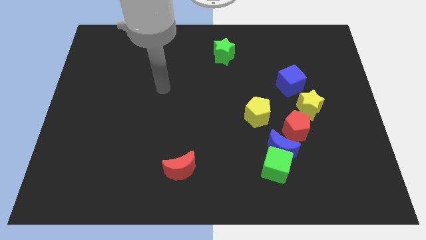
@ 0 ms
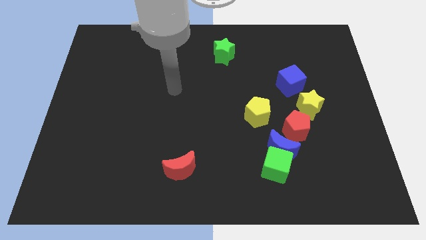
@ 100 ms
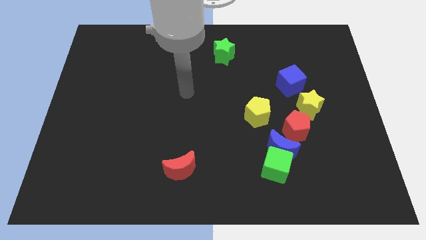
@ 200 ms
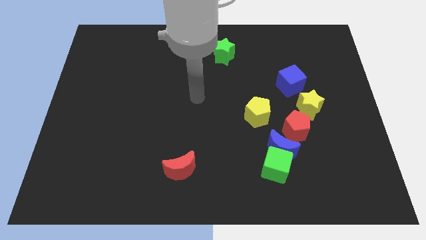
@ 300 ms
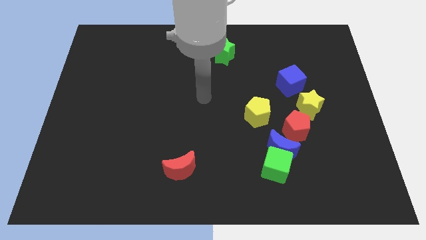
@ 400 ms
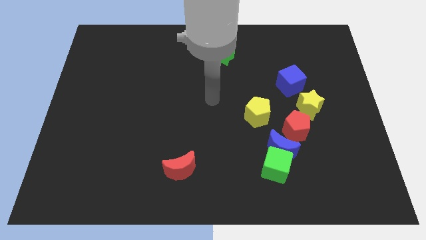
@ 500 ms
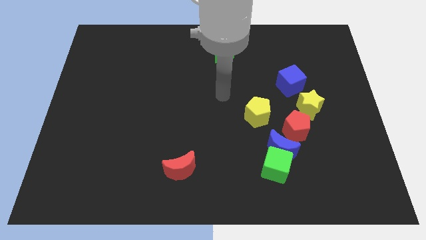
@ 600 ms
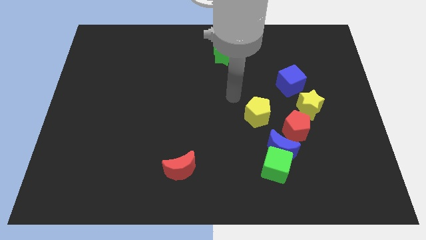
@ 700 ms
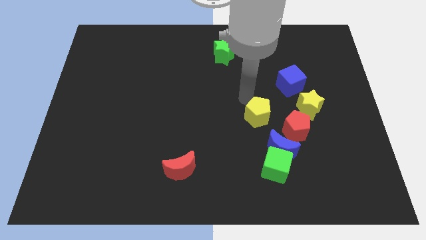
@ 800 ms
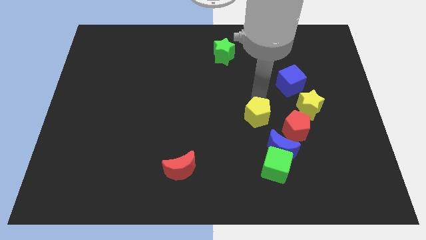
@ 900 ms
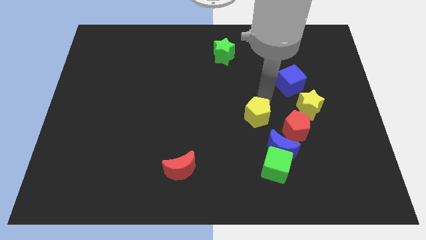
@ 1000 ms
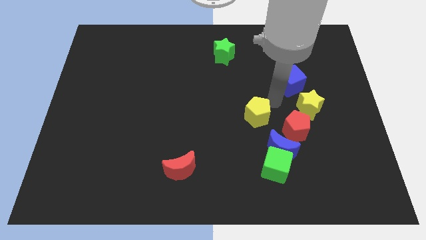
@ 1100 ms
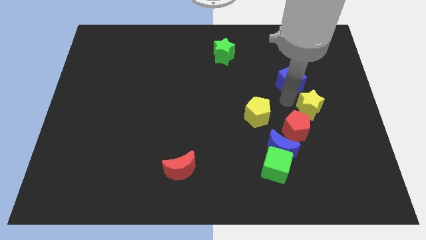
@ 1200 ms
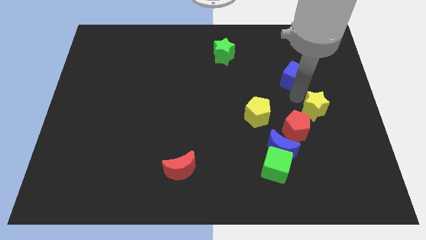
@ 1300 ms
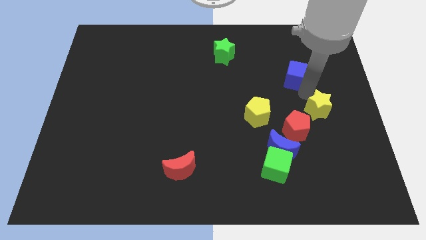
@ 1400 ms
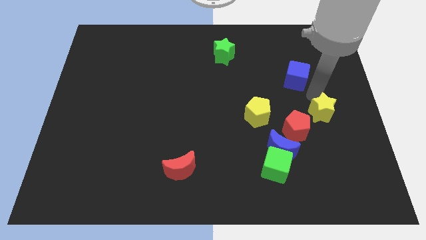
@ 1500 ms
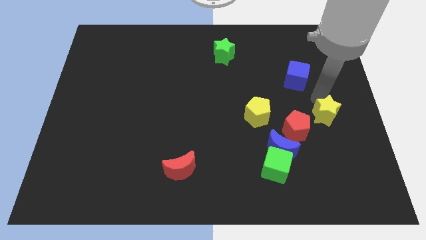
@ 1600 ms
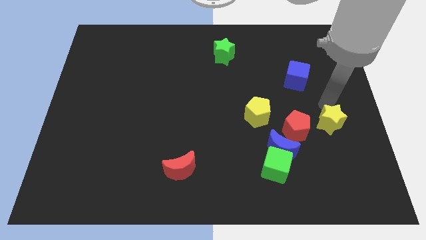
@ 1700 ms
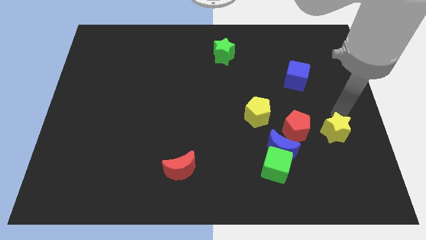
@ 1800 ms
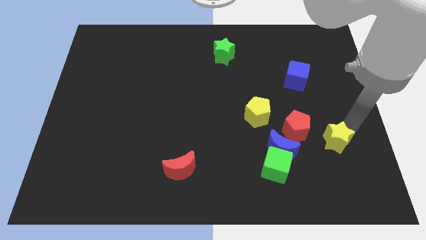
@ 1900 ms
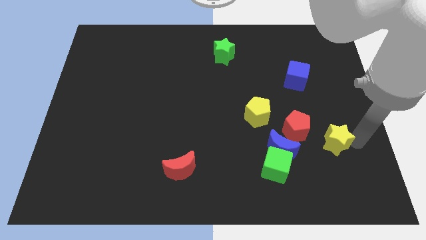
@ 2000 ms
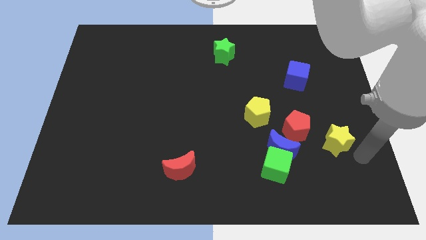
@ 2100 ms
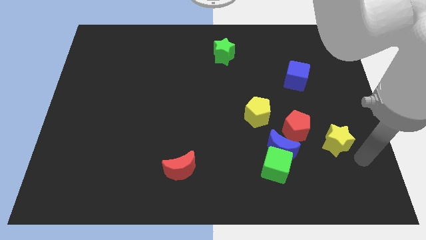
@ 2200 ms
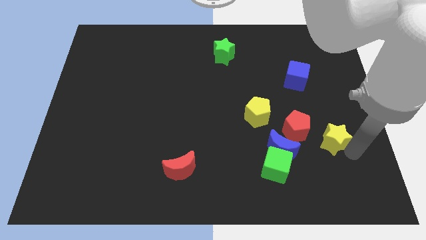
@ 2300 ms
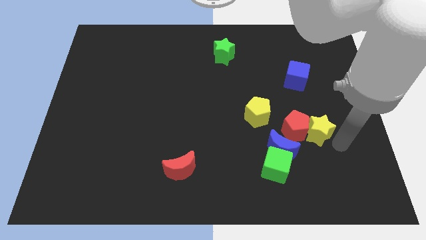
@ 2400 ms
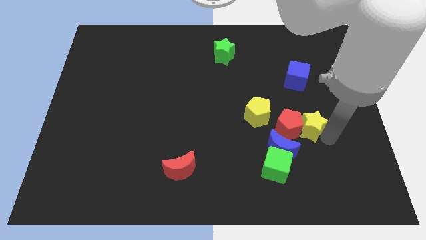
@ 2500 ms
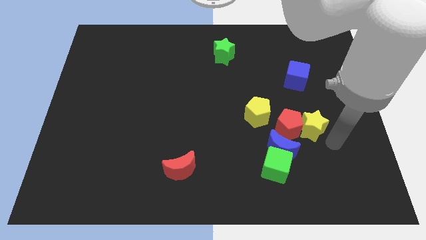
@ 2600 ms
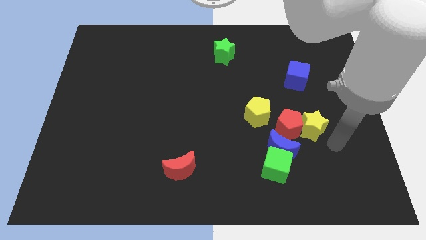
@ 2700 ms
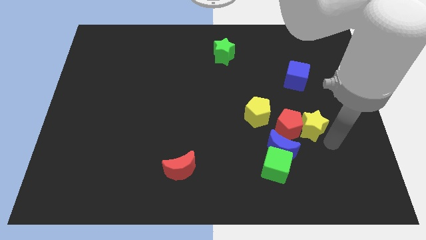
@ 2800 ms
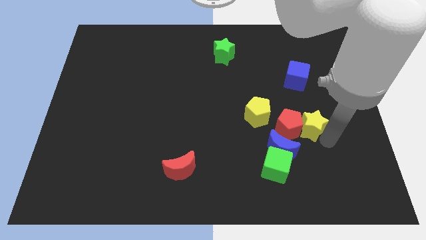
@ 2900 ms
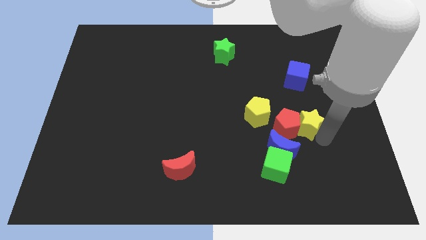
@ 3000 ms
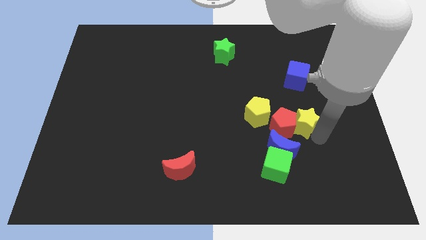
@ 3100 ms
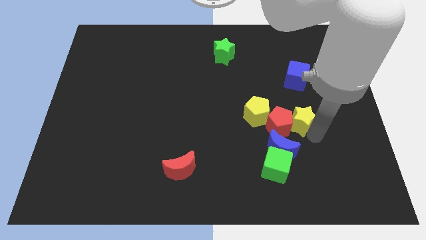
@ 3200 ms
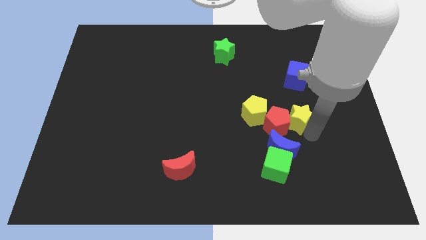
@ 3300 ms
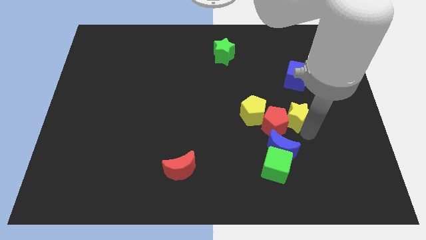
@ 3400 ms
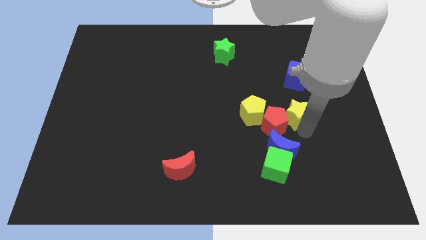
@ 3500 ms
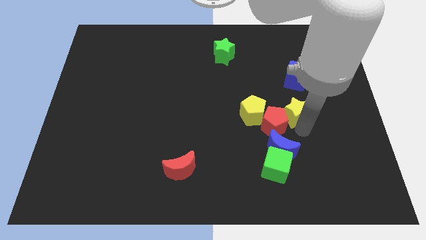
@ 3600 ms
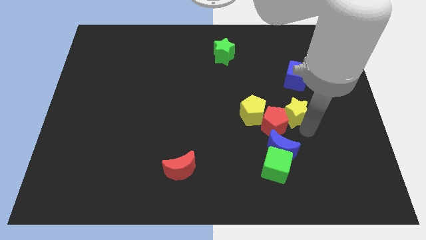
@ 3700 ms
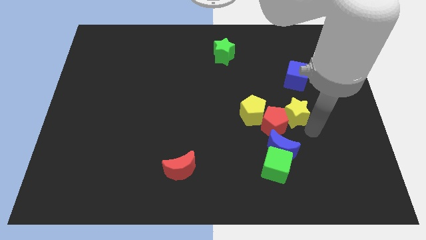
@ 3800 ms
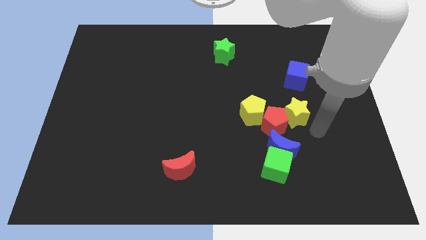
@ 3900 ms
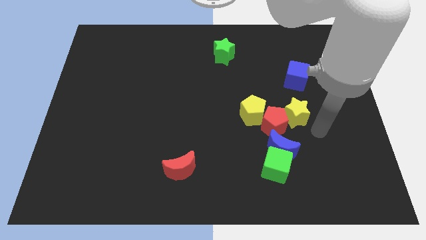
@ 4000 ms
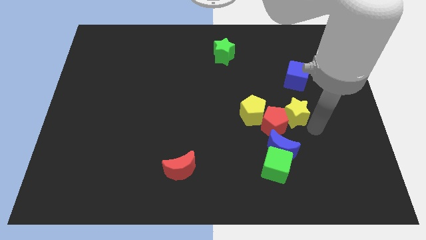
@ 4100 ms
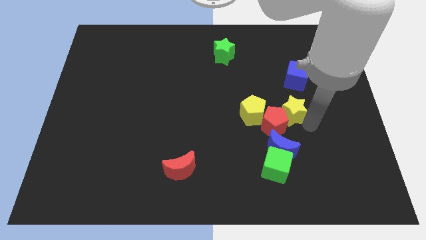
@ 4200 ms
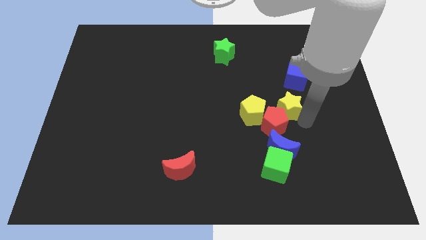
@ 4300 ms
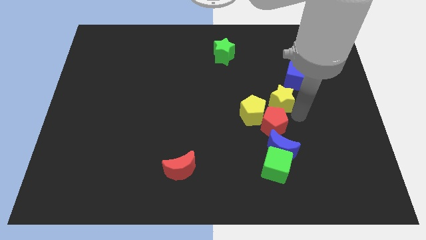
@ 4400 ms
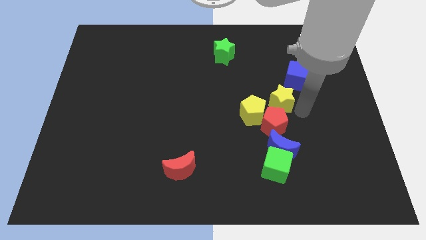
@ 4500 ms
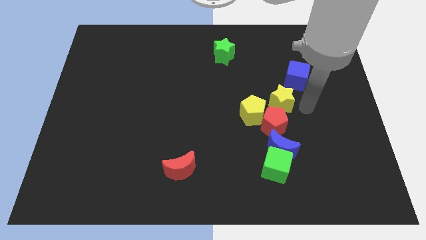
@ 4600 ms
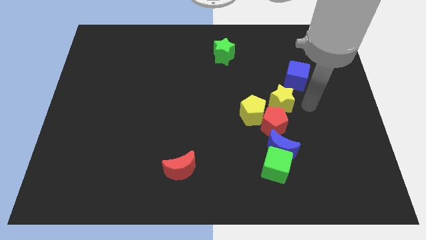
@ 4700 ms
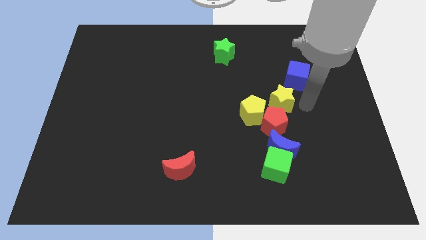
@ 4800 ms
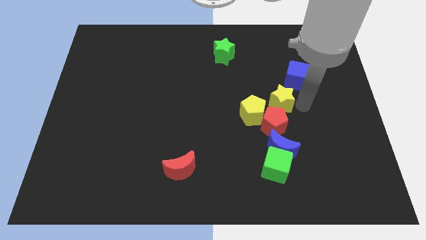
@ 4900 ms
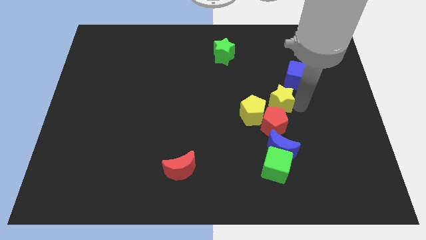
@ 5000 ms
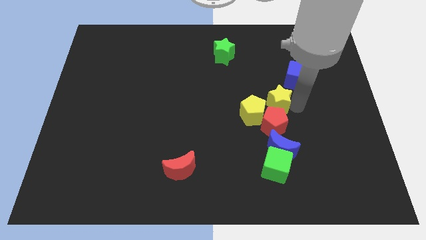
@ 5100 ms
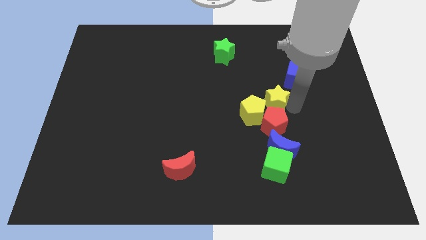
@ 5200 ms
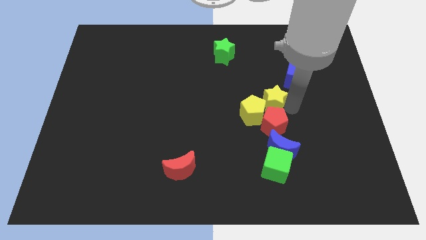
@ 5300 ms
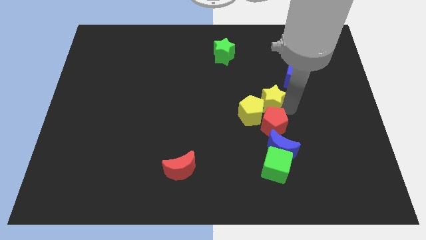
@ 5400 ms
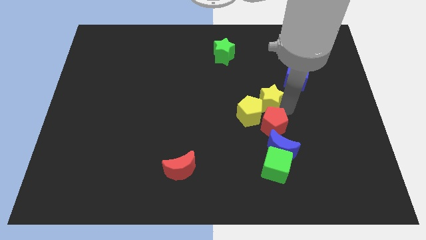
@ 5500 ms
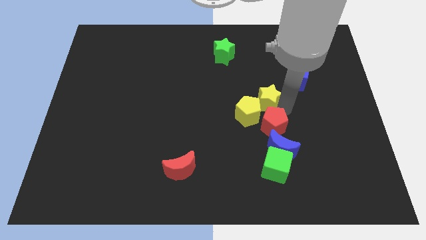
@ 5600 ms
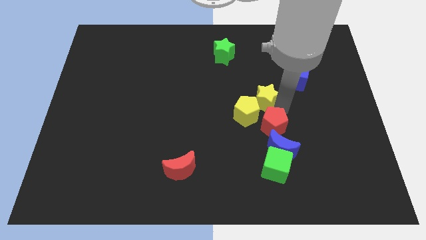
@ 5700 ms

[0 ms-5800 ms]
put the yellow star to the middle of the board

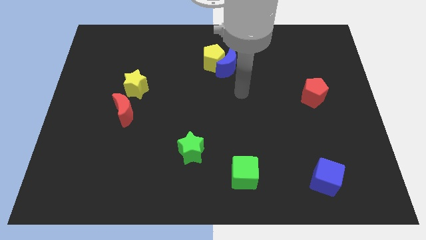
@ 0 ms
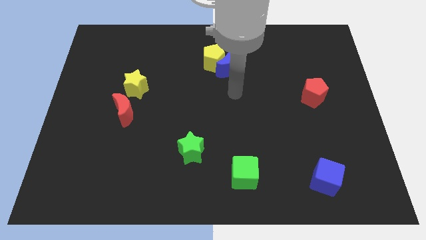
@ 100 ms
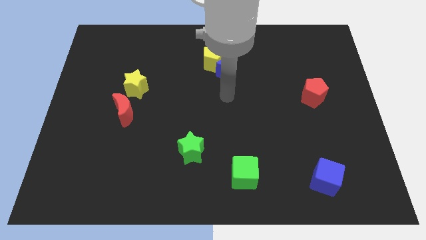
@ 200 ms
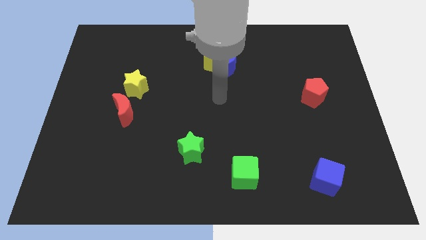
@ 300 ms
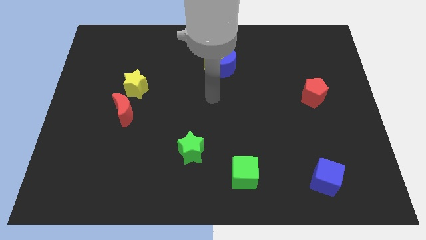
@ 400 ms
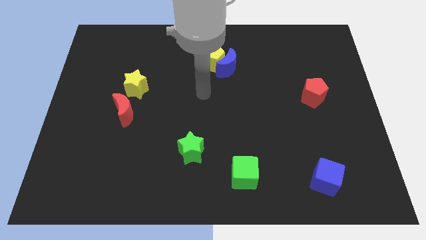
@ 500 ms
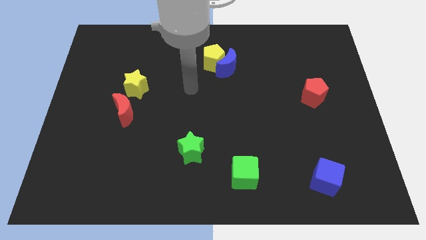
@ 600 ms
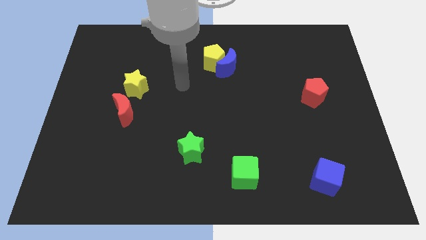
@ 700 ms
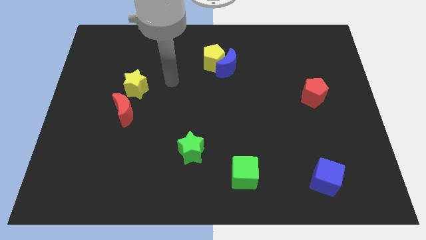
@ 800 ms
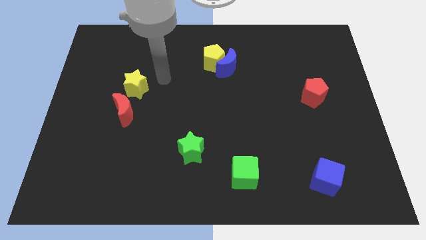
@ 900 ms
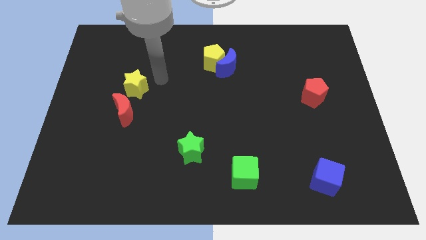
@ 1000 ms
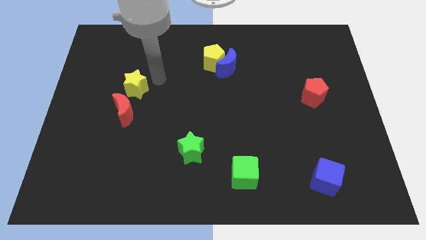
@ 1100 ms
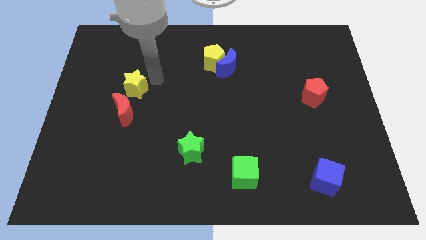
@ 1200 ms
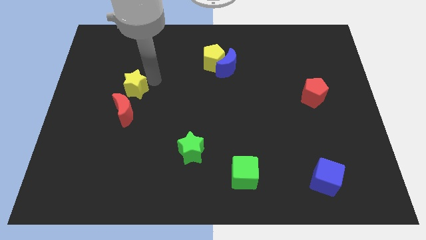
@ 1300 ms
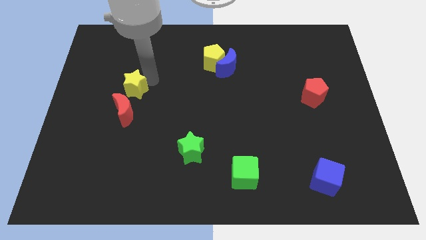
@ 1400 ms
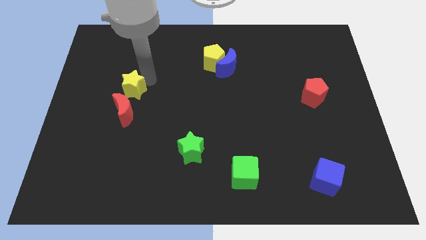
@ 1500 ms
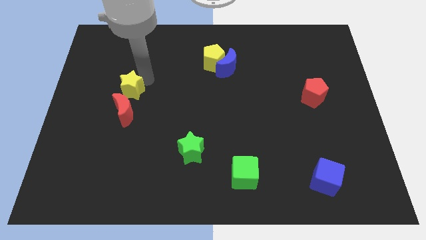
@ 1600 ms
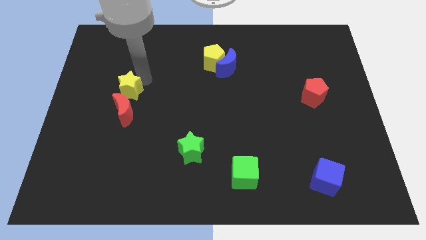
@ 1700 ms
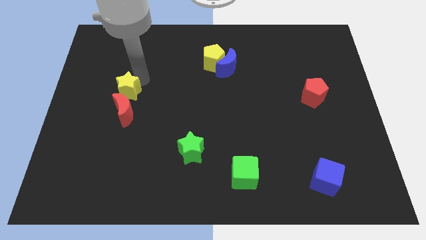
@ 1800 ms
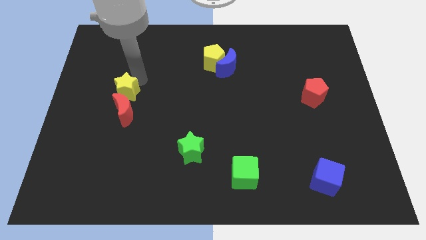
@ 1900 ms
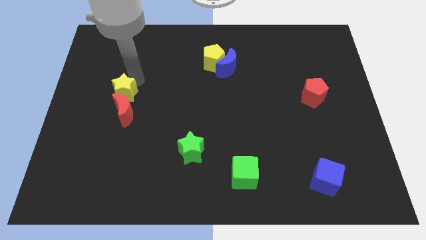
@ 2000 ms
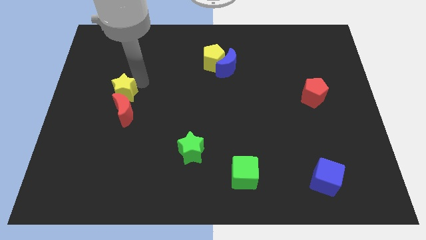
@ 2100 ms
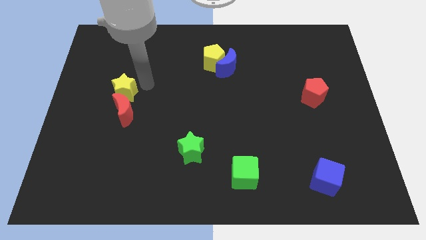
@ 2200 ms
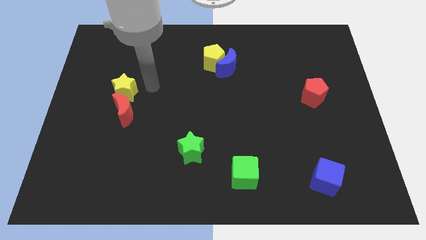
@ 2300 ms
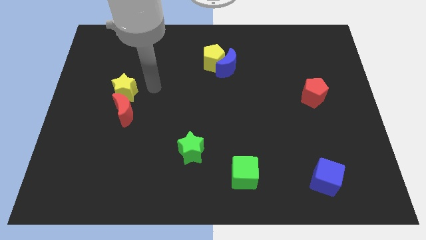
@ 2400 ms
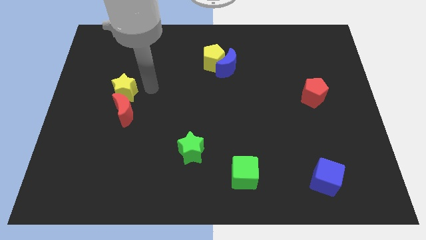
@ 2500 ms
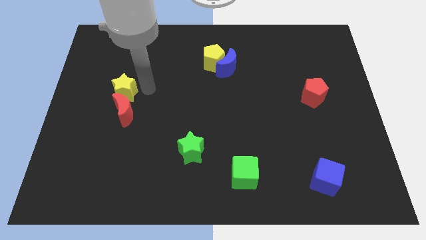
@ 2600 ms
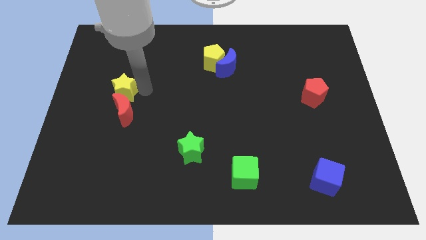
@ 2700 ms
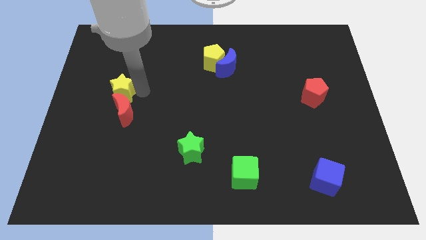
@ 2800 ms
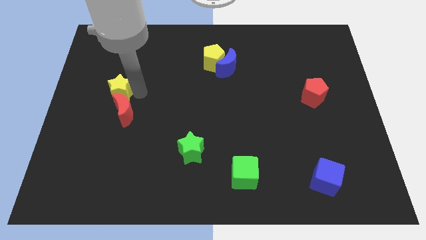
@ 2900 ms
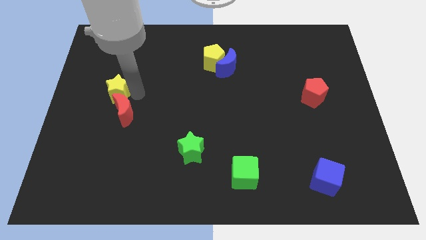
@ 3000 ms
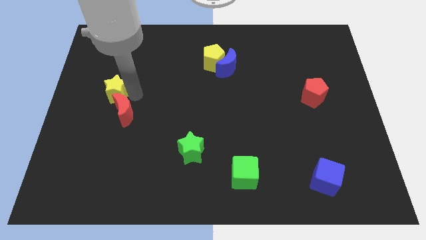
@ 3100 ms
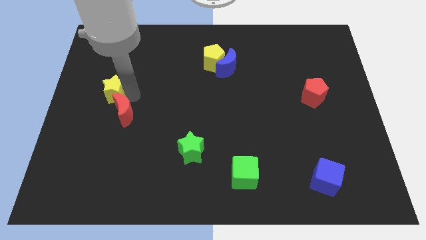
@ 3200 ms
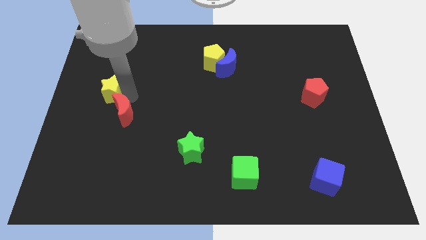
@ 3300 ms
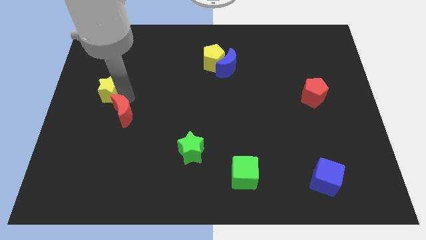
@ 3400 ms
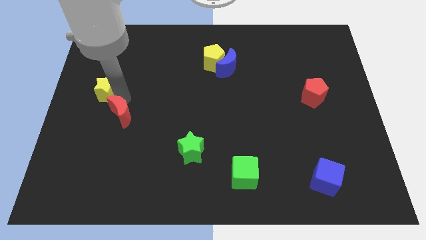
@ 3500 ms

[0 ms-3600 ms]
move the yellow star to the left side
